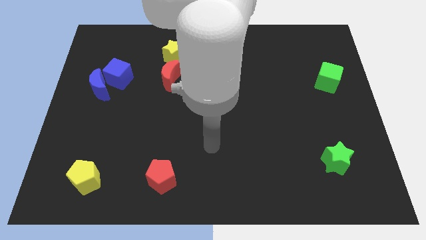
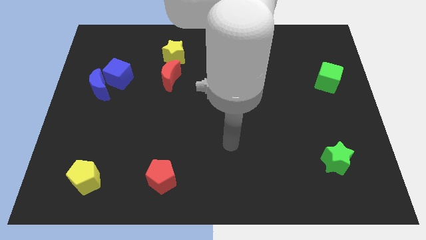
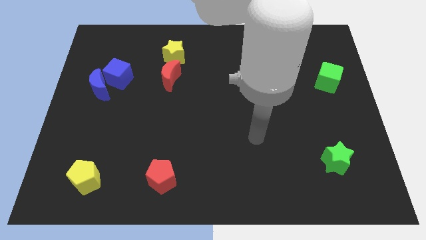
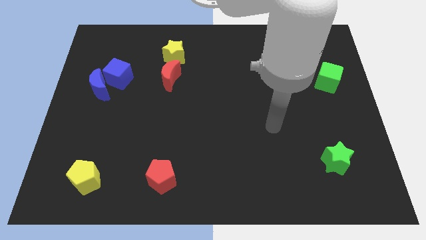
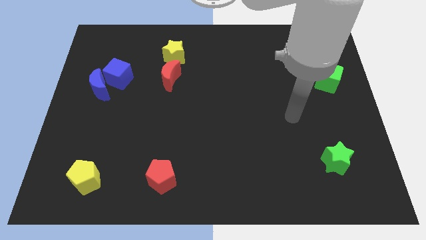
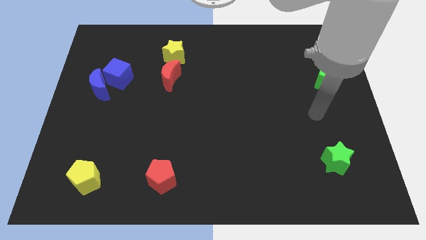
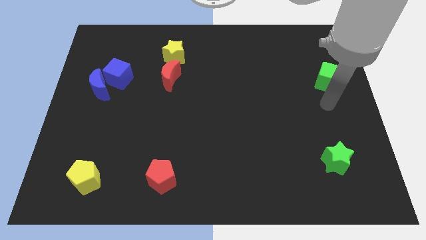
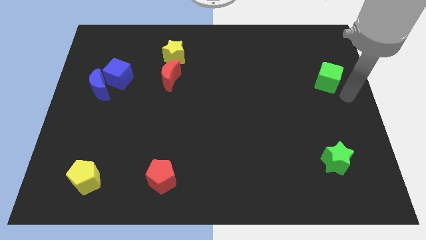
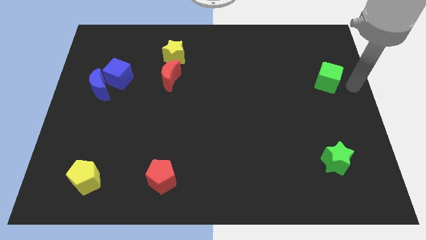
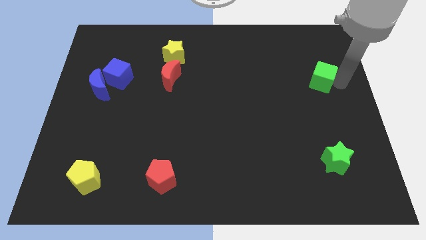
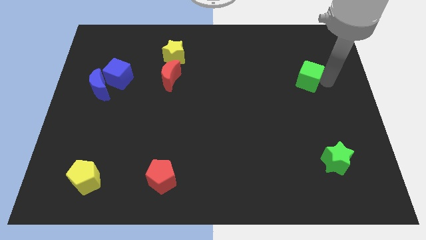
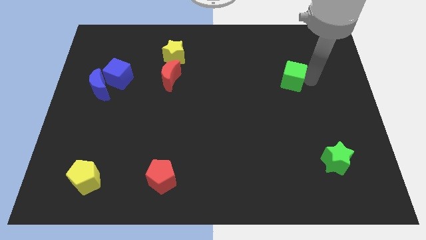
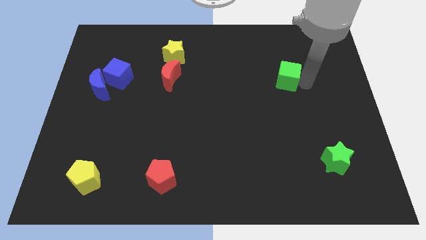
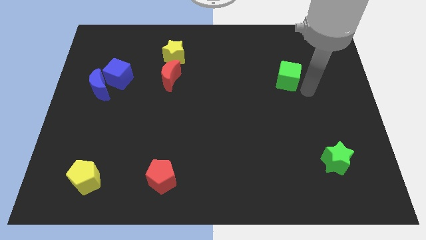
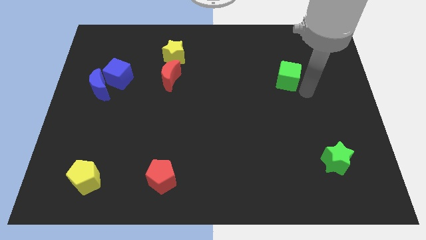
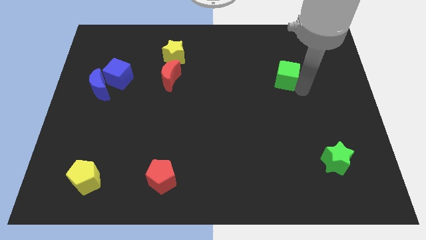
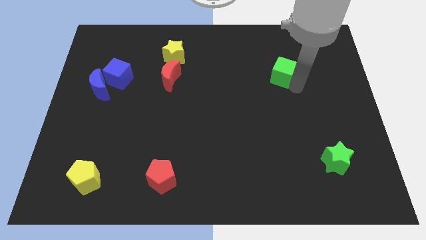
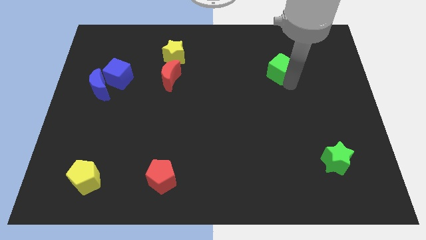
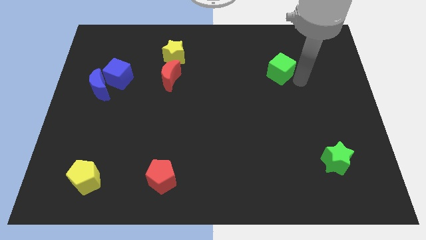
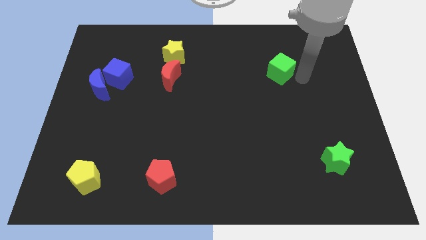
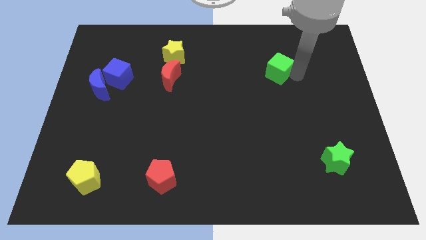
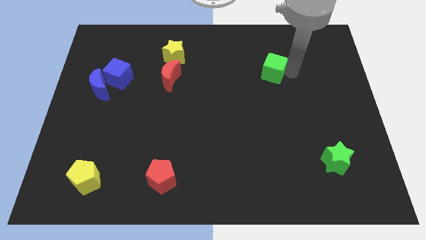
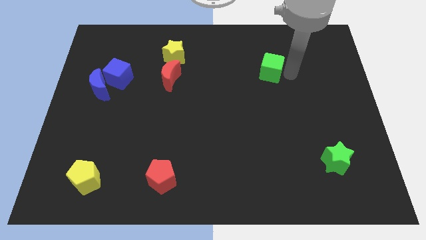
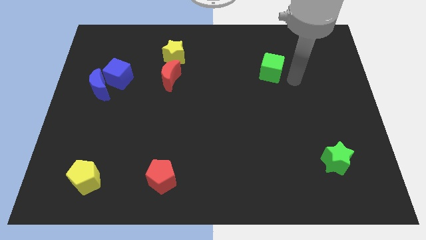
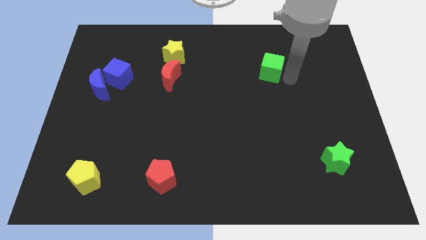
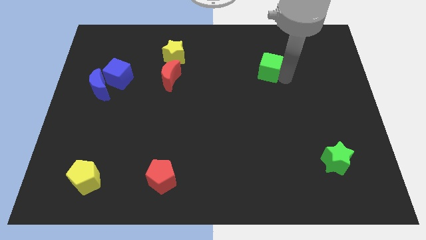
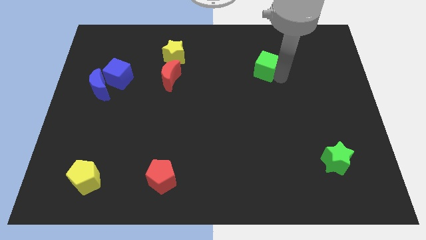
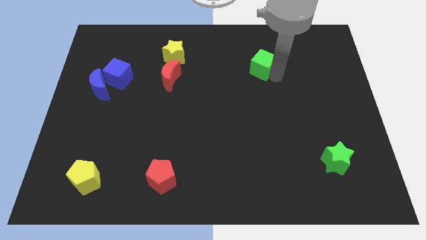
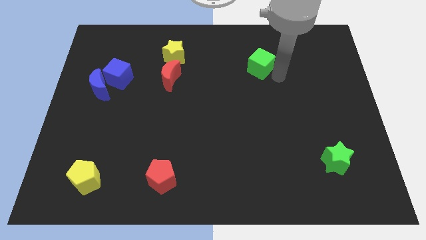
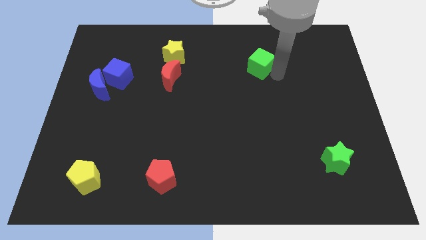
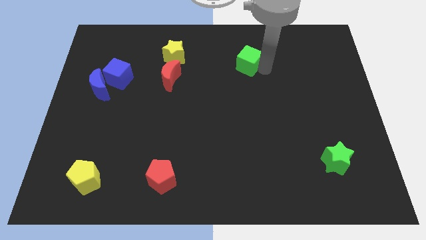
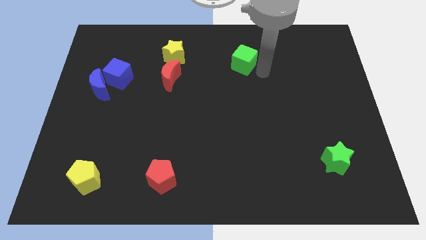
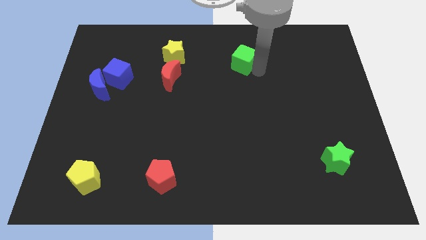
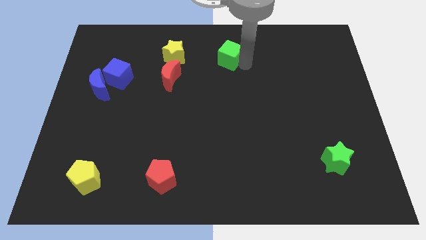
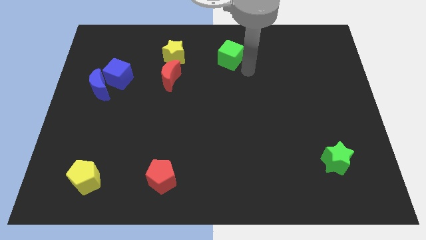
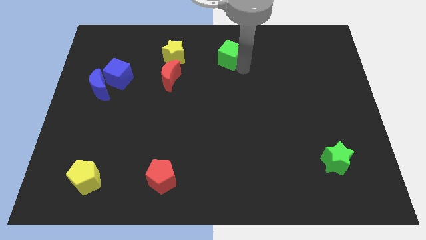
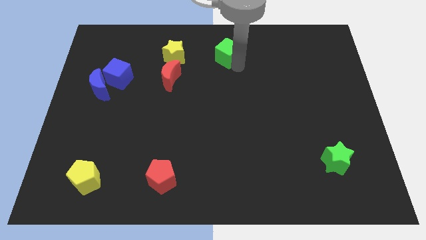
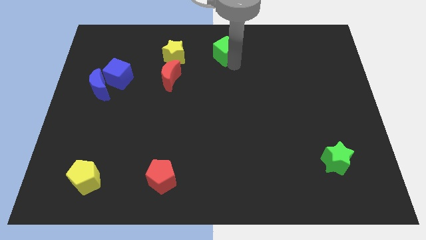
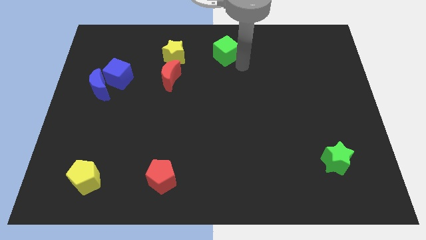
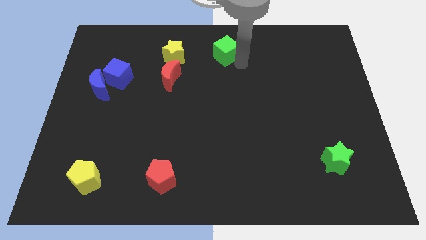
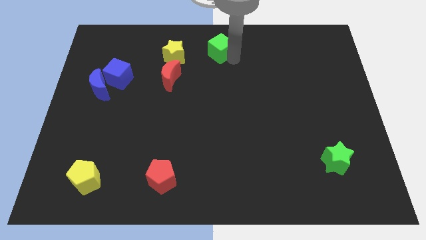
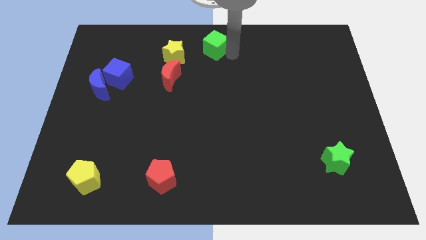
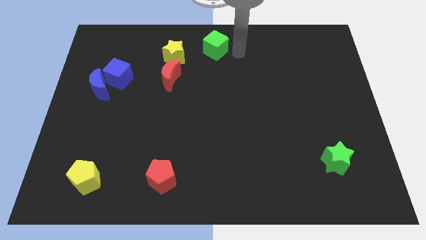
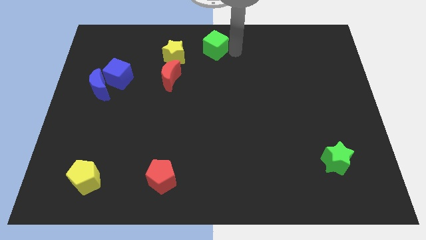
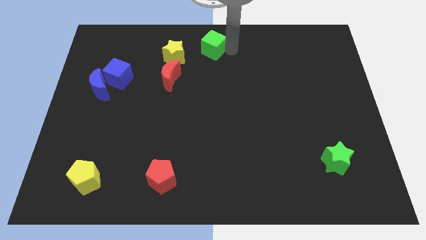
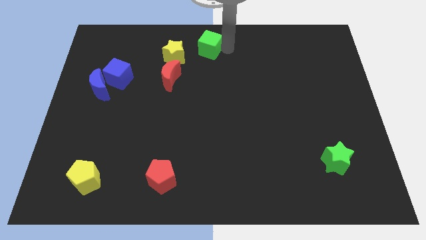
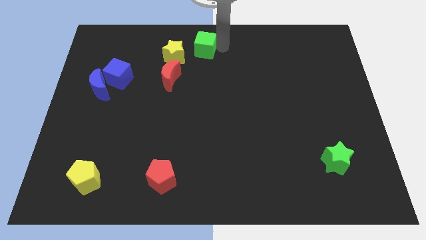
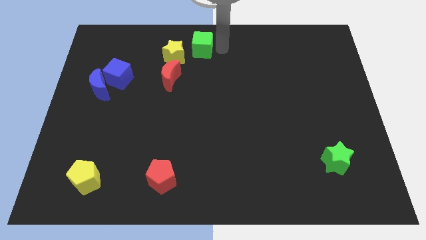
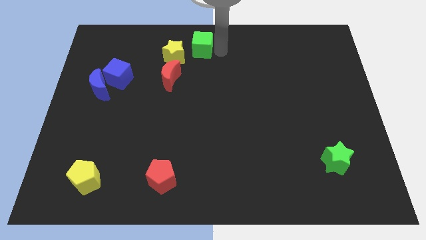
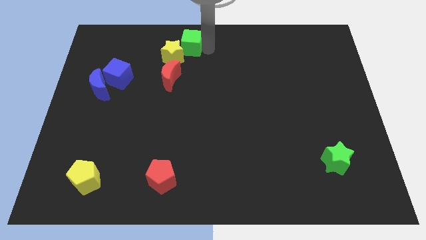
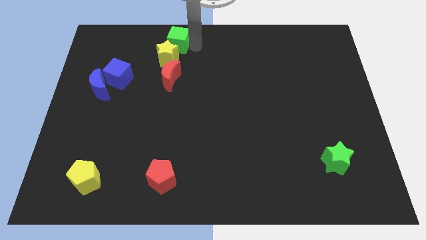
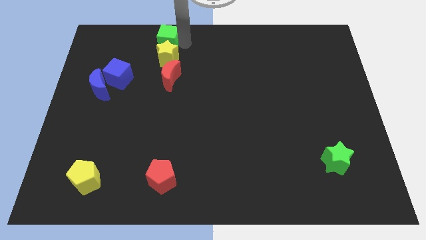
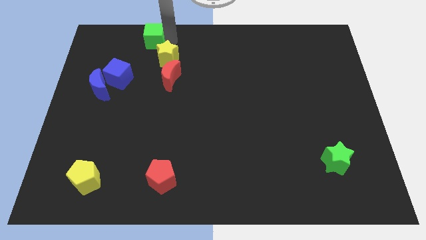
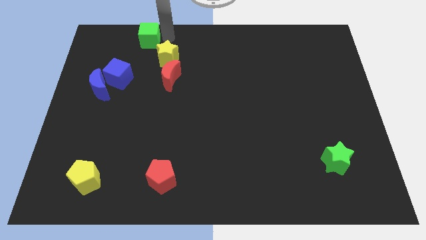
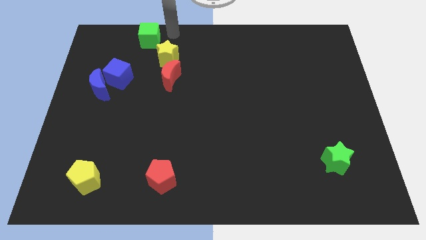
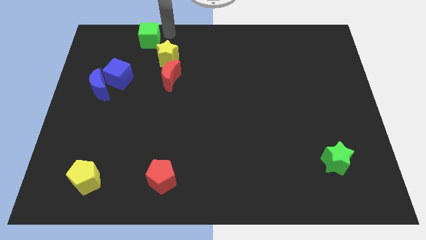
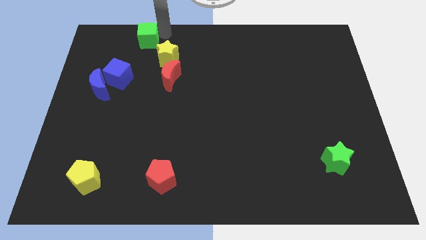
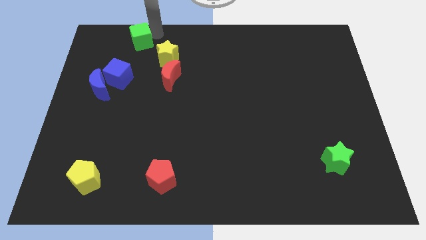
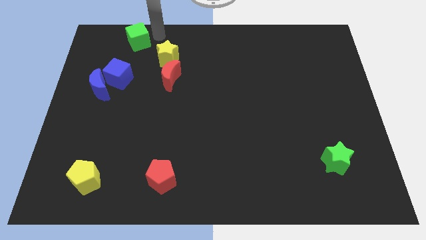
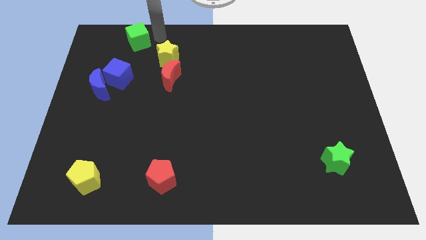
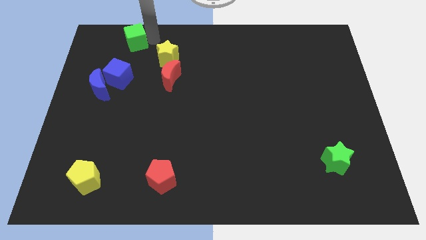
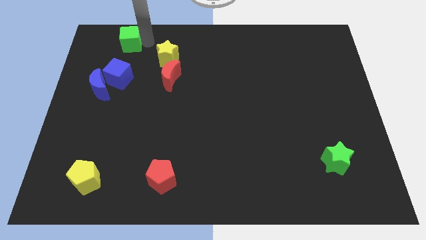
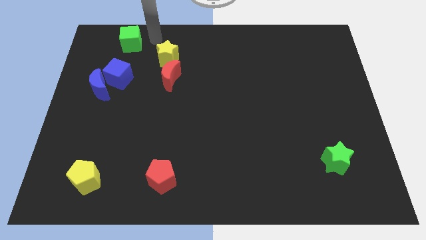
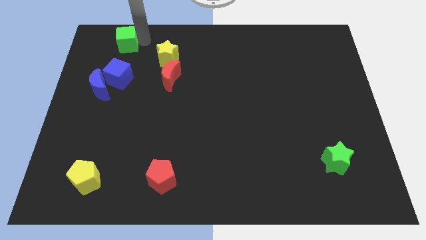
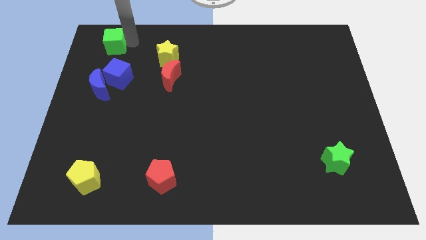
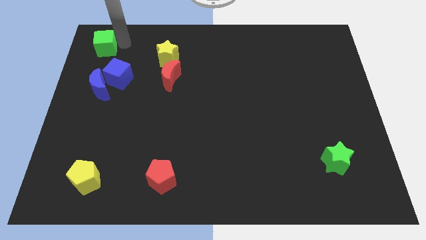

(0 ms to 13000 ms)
move the green cube to the upper left corner

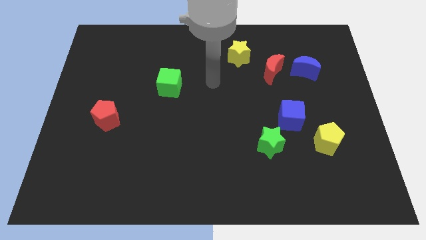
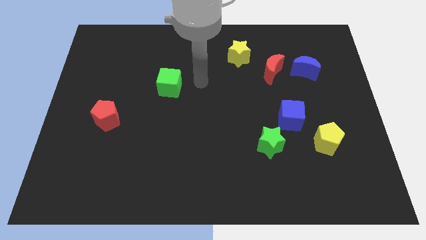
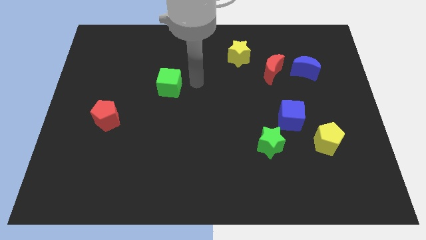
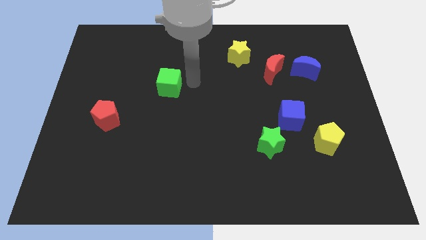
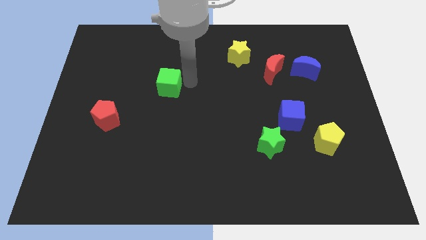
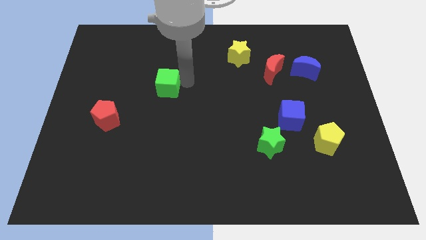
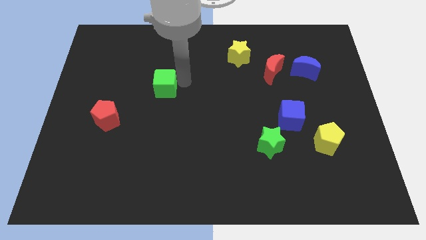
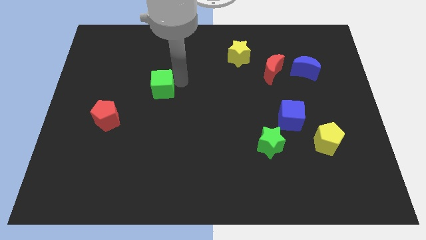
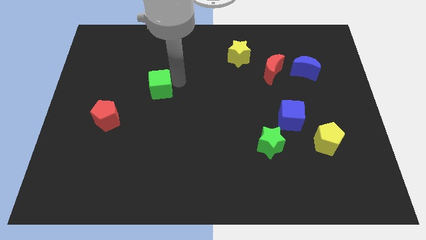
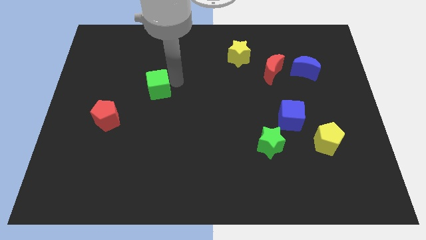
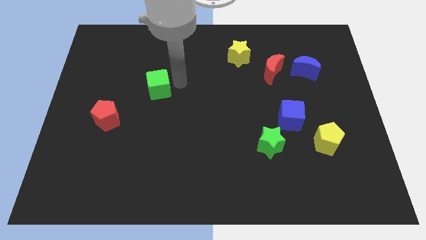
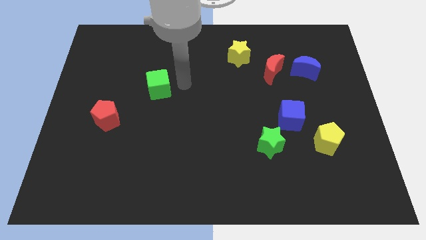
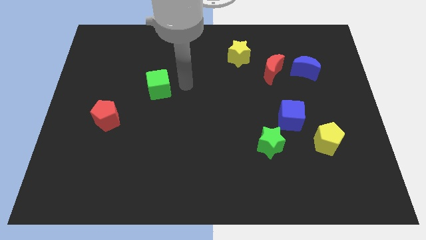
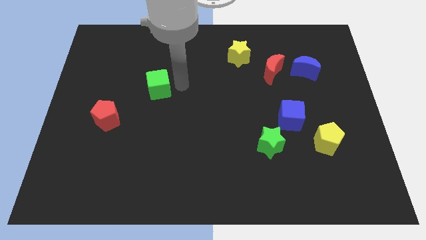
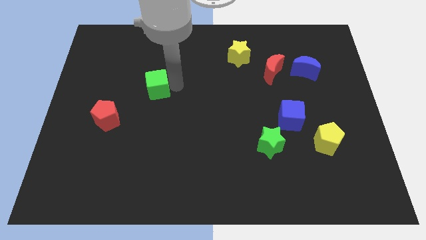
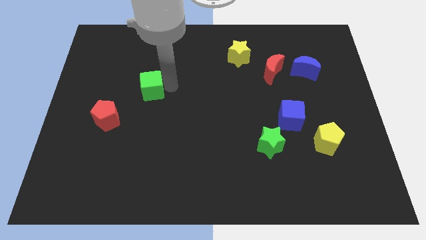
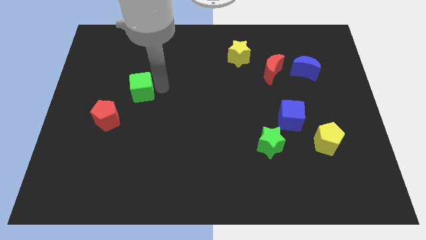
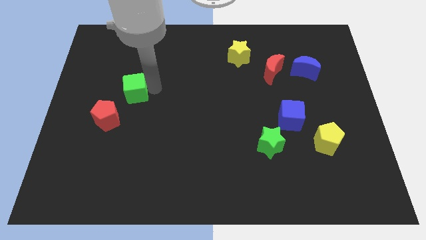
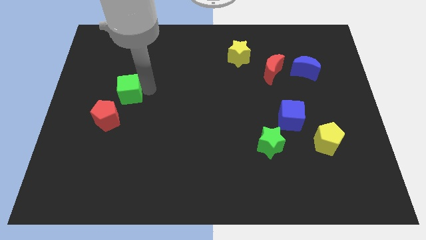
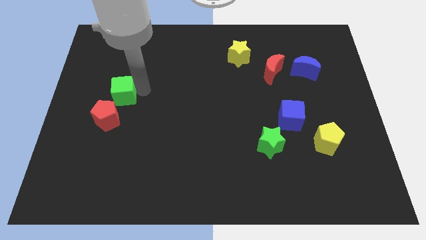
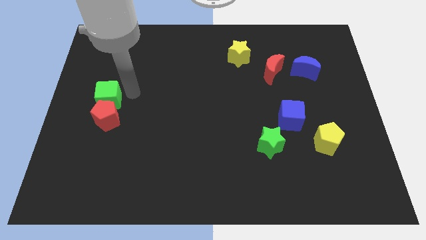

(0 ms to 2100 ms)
push the green cube to the left side
